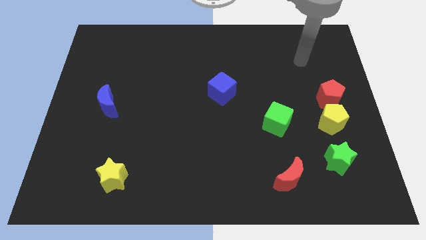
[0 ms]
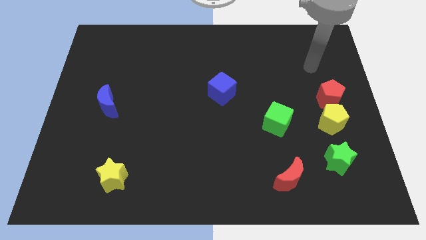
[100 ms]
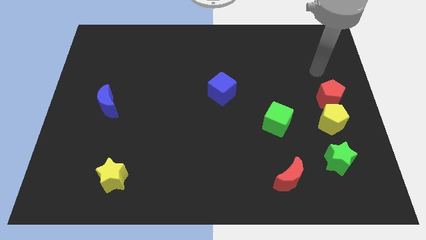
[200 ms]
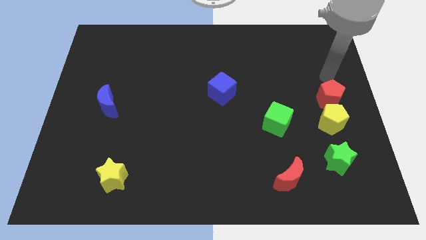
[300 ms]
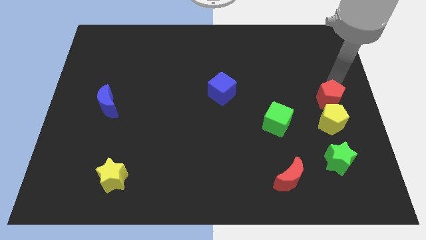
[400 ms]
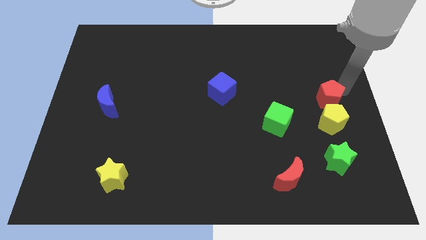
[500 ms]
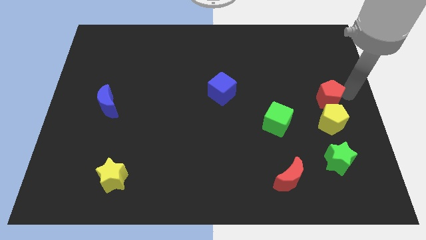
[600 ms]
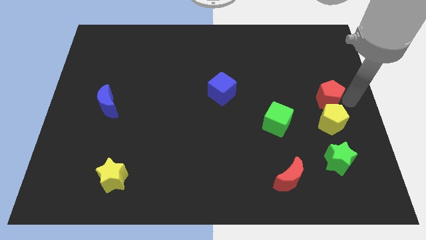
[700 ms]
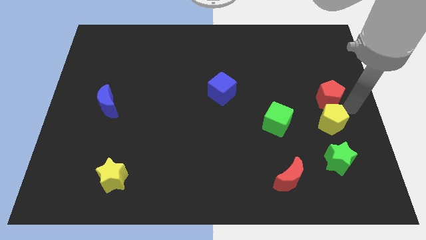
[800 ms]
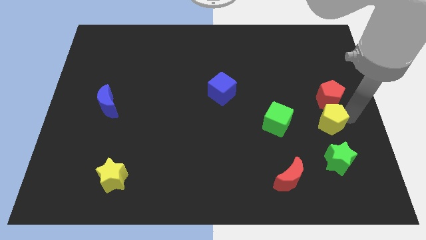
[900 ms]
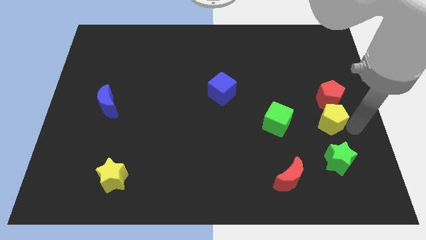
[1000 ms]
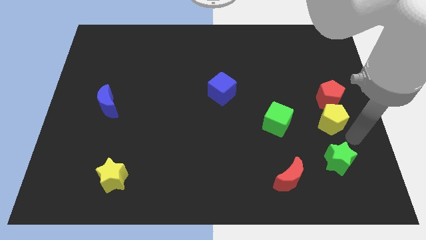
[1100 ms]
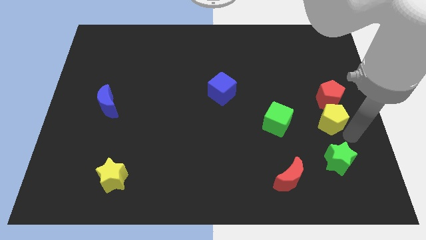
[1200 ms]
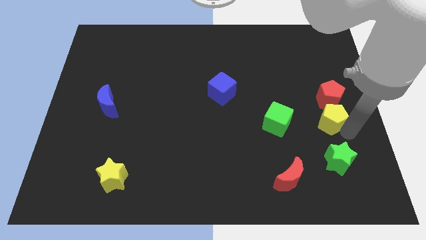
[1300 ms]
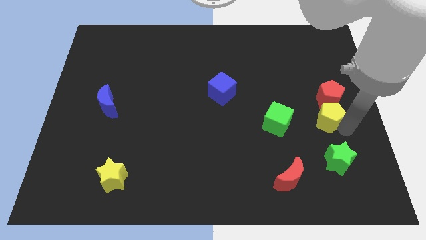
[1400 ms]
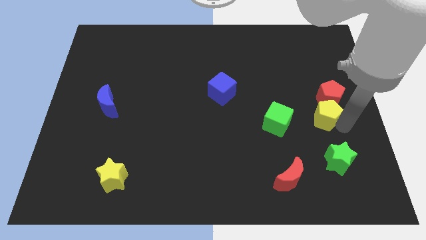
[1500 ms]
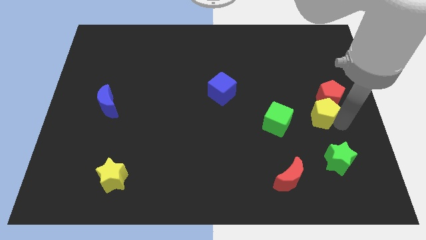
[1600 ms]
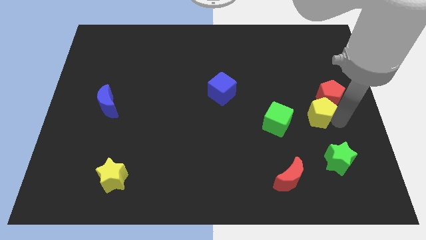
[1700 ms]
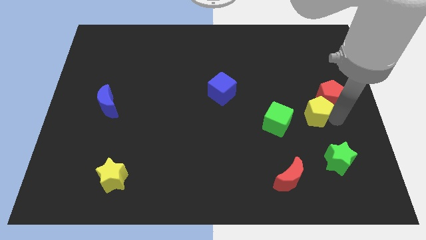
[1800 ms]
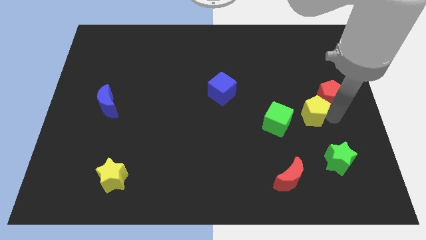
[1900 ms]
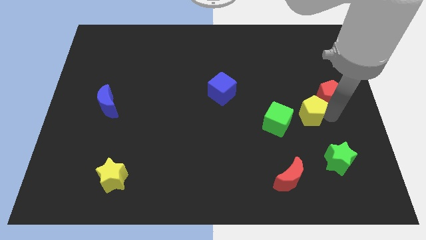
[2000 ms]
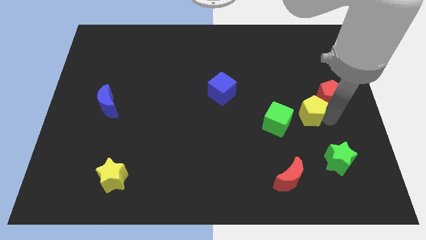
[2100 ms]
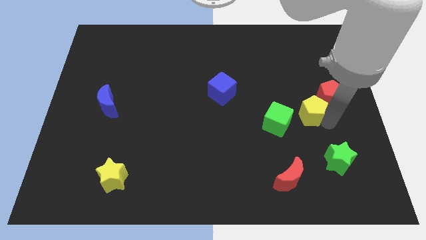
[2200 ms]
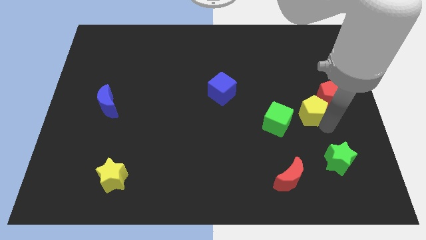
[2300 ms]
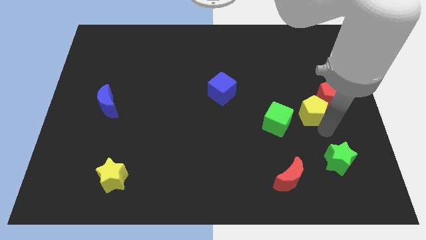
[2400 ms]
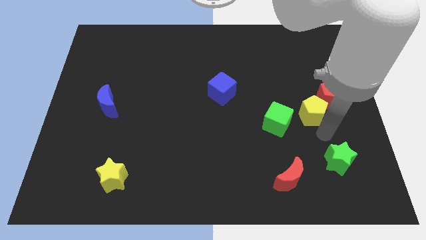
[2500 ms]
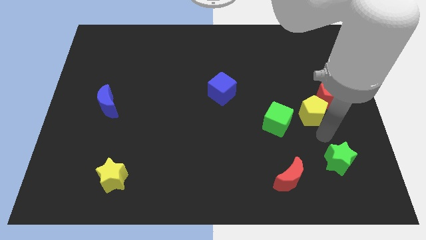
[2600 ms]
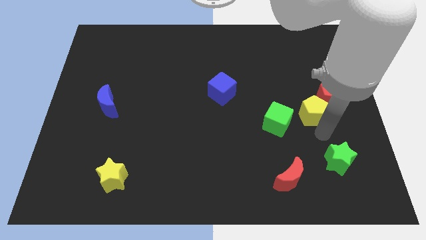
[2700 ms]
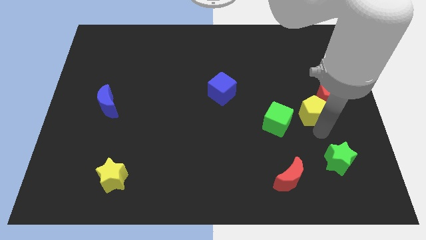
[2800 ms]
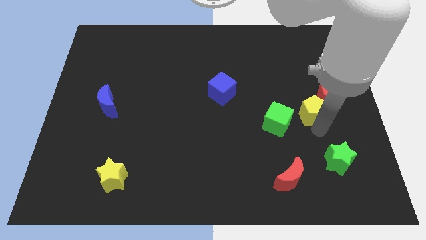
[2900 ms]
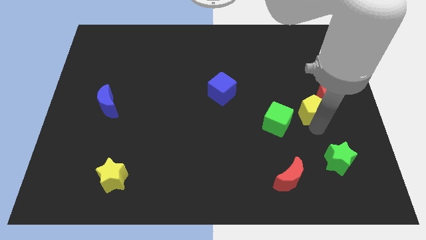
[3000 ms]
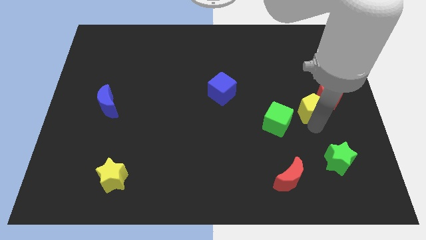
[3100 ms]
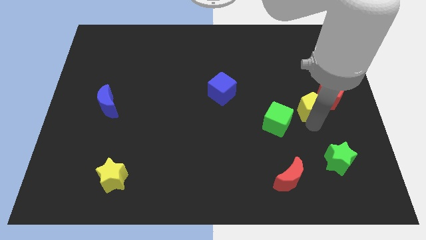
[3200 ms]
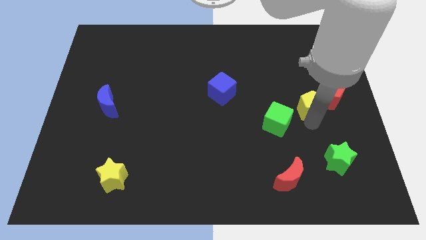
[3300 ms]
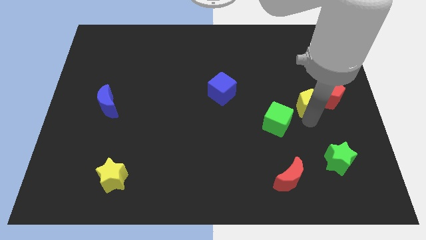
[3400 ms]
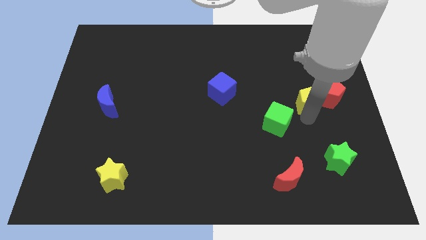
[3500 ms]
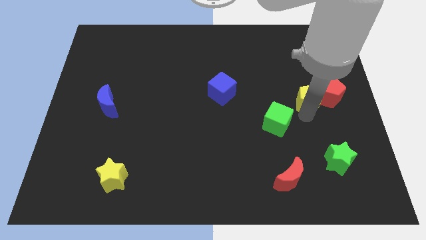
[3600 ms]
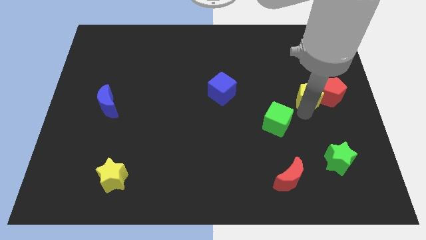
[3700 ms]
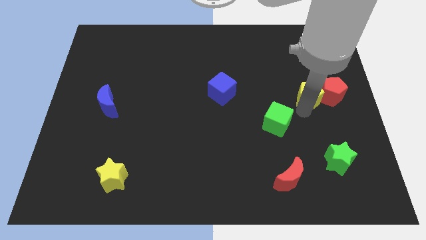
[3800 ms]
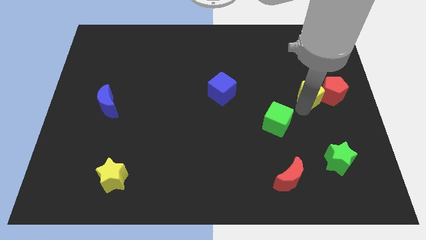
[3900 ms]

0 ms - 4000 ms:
push the yellow pentagon up a bit

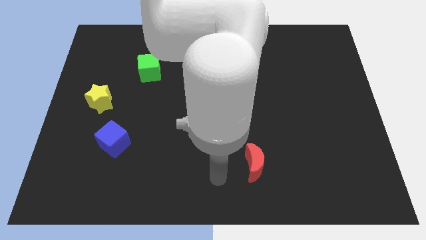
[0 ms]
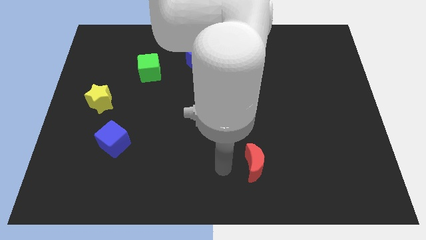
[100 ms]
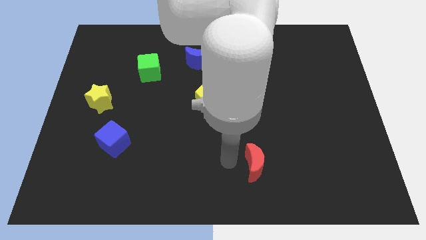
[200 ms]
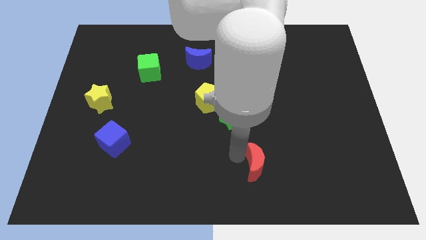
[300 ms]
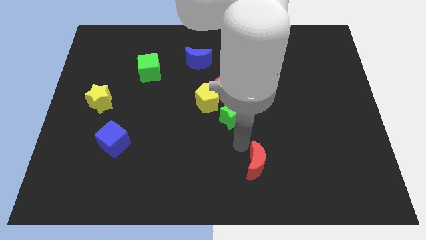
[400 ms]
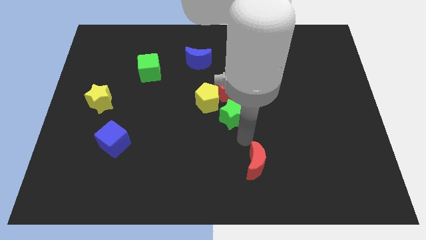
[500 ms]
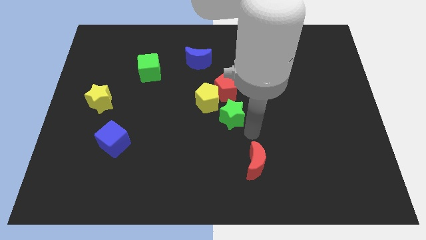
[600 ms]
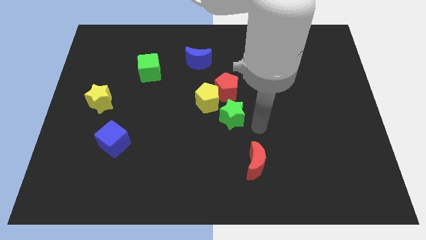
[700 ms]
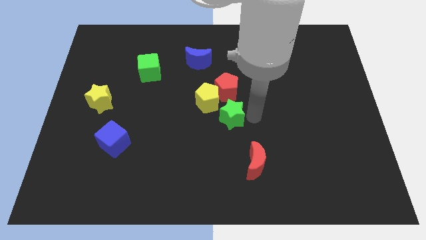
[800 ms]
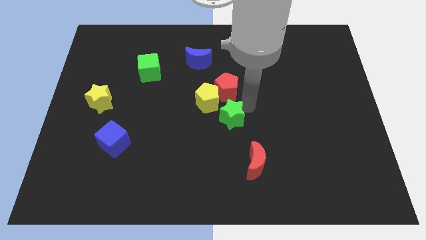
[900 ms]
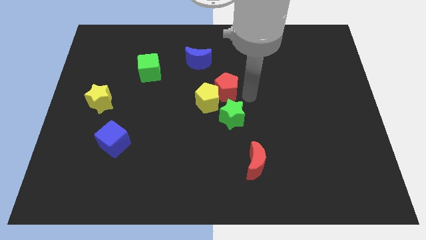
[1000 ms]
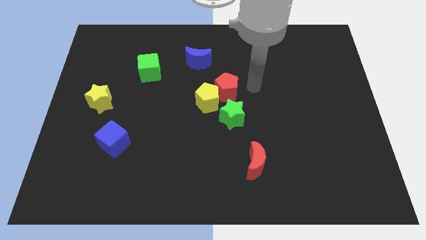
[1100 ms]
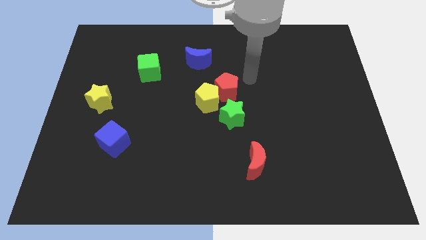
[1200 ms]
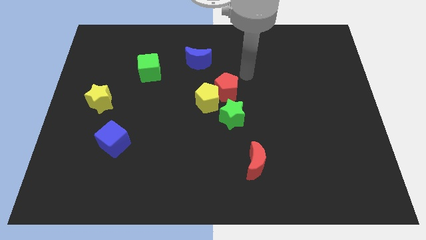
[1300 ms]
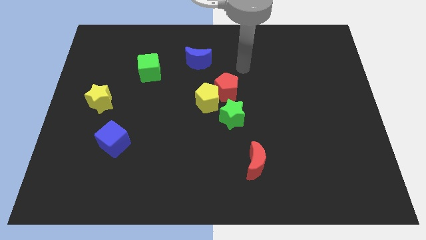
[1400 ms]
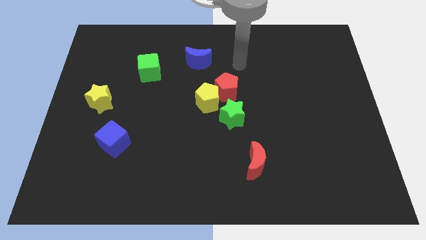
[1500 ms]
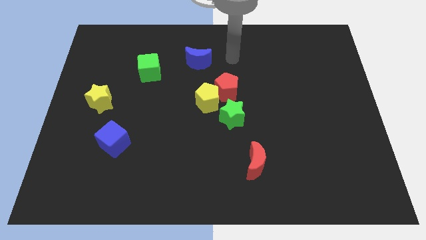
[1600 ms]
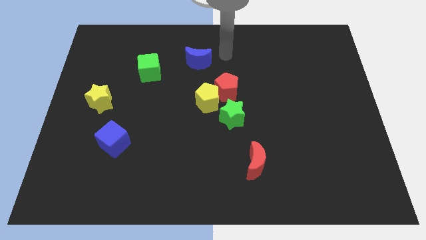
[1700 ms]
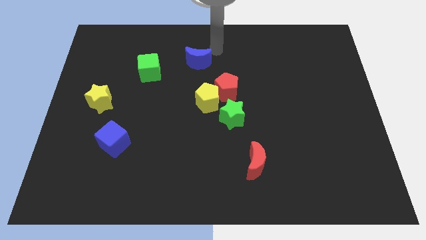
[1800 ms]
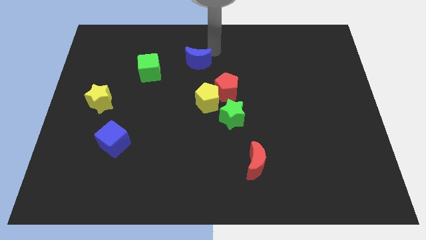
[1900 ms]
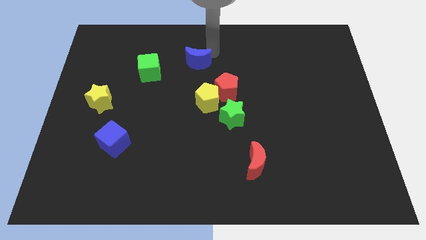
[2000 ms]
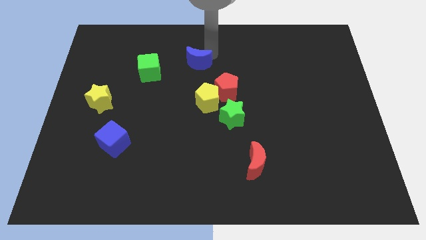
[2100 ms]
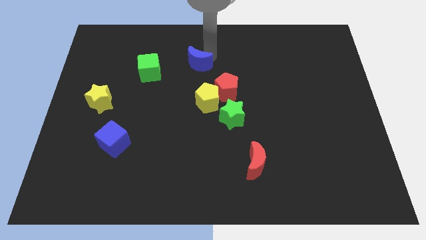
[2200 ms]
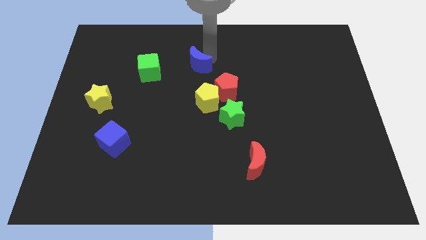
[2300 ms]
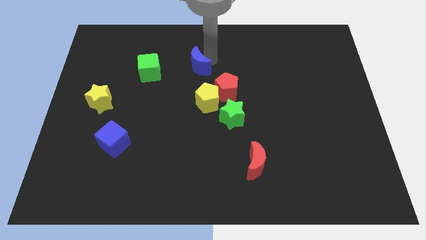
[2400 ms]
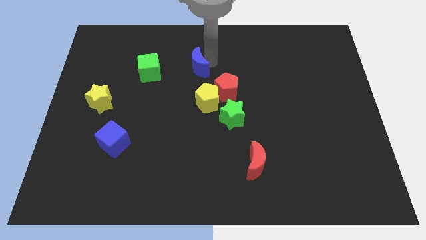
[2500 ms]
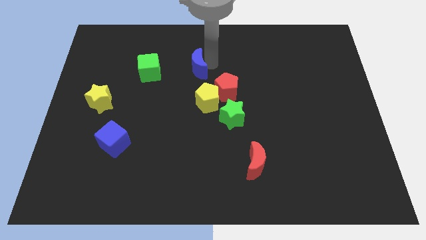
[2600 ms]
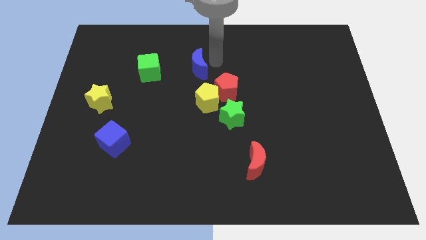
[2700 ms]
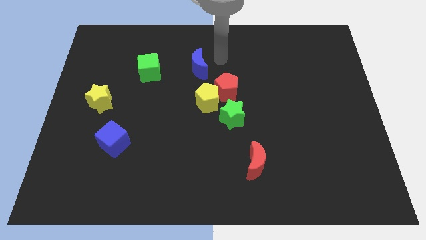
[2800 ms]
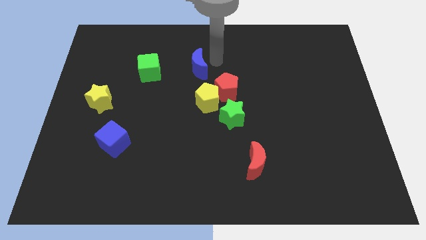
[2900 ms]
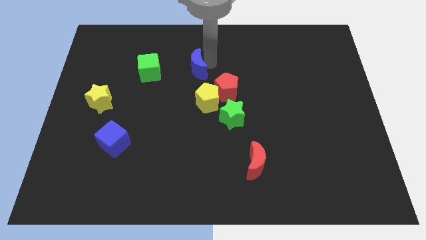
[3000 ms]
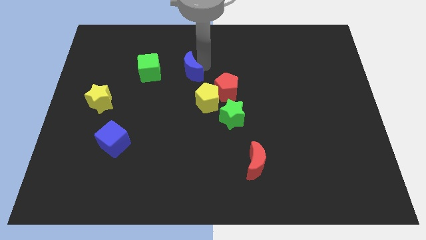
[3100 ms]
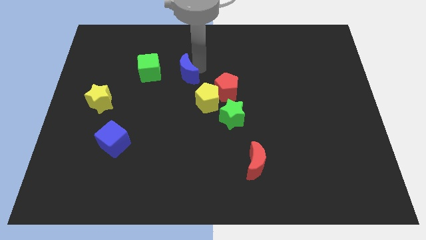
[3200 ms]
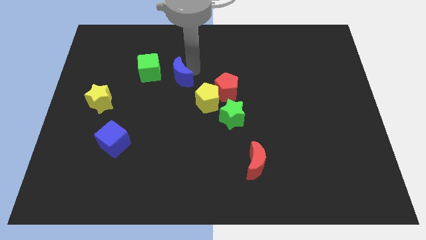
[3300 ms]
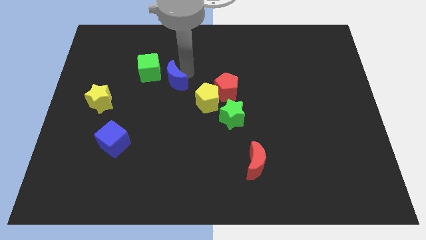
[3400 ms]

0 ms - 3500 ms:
slide the blue moon diagonally downwards and to the left a little bit

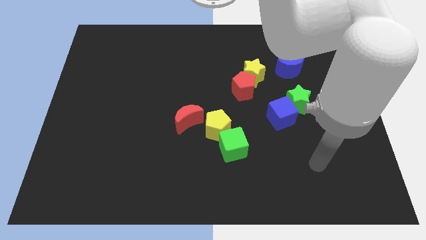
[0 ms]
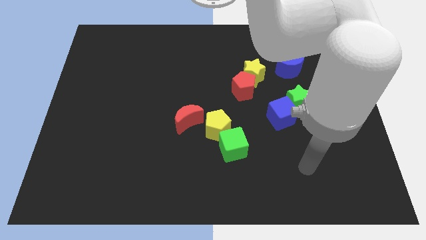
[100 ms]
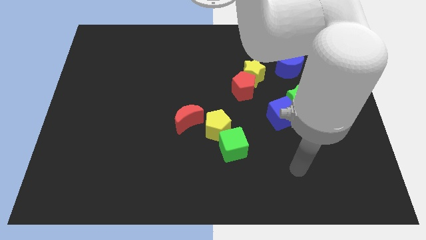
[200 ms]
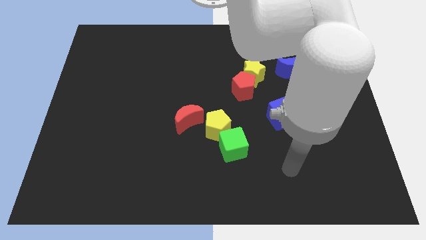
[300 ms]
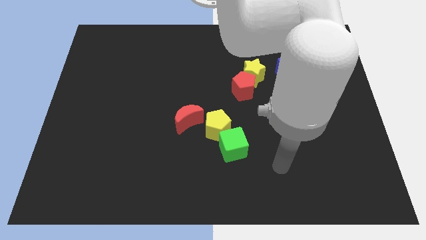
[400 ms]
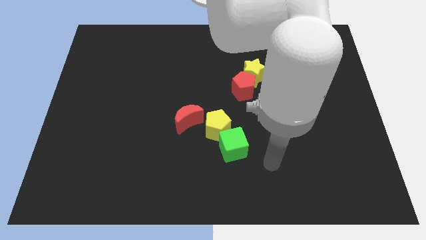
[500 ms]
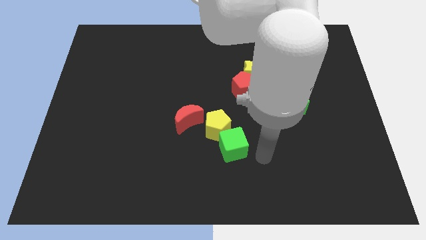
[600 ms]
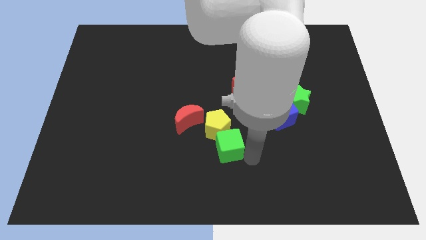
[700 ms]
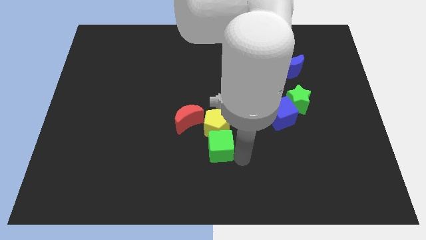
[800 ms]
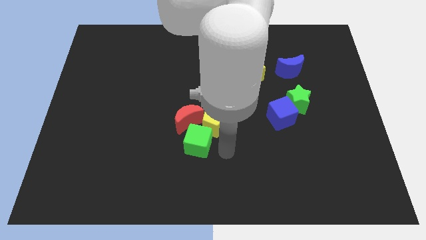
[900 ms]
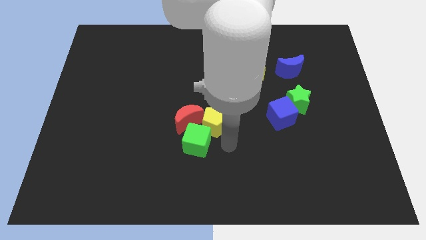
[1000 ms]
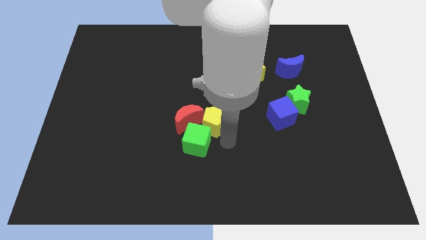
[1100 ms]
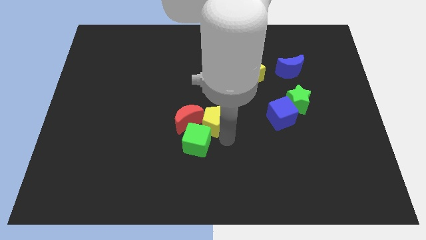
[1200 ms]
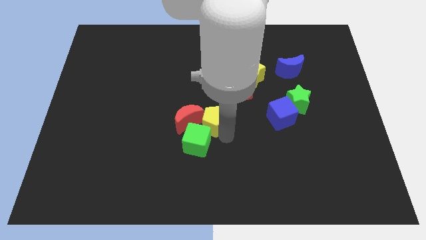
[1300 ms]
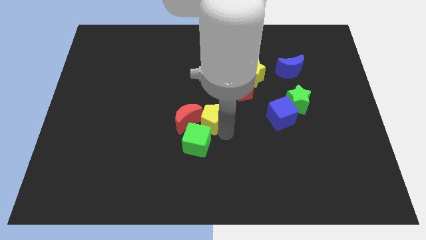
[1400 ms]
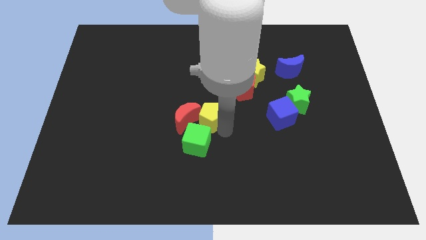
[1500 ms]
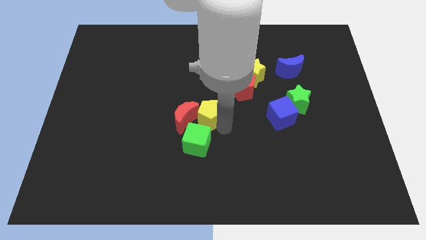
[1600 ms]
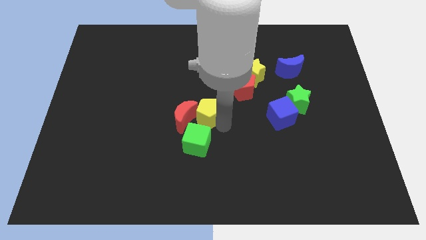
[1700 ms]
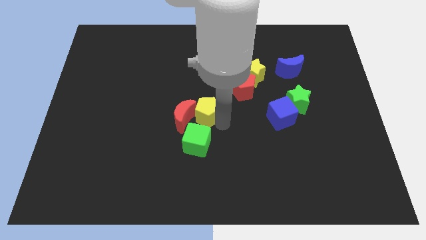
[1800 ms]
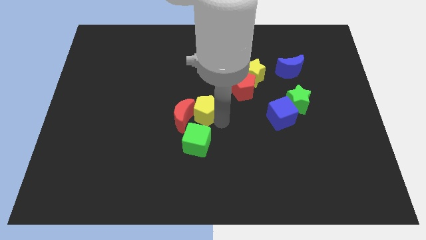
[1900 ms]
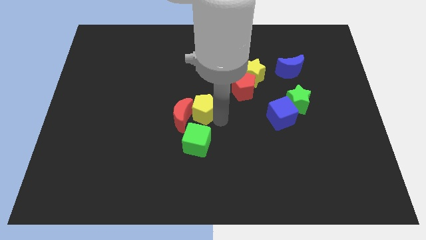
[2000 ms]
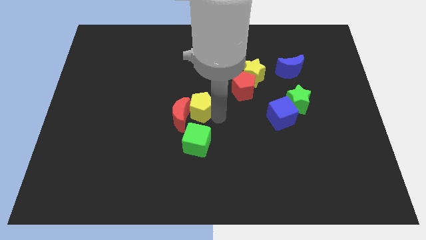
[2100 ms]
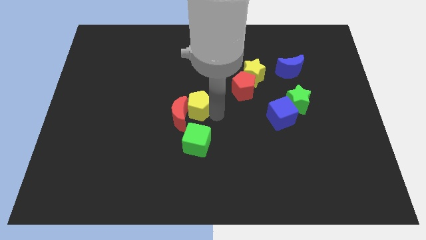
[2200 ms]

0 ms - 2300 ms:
move the yellow pentagon a little up and to the left diagonally
